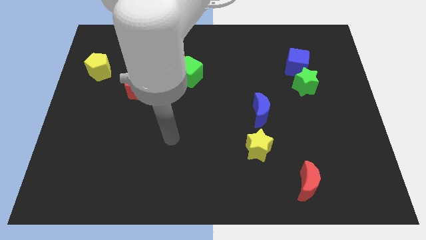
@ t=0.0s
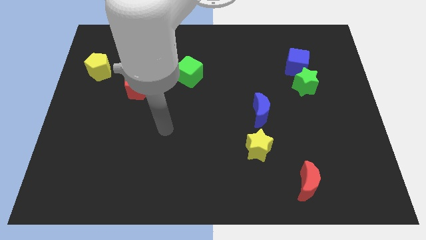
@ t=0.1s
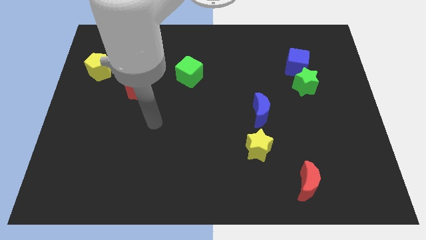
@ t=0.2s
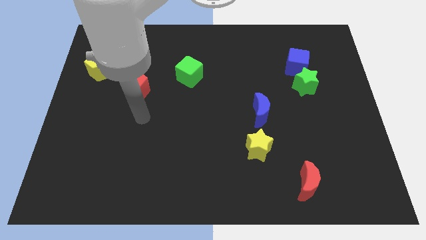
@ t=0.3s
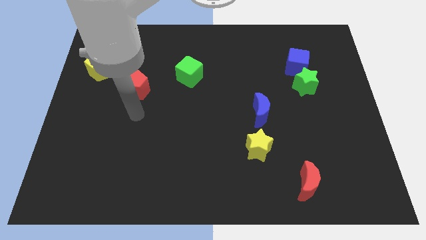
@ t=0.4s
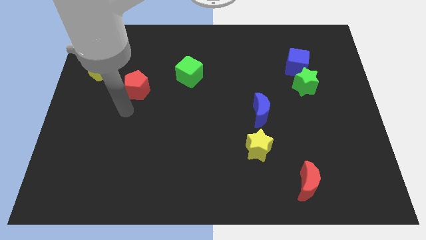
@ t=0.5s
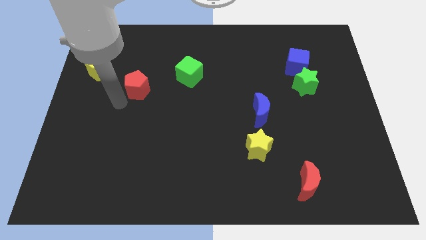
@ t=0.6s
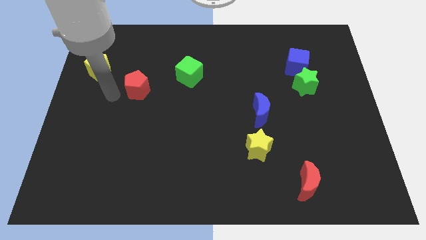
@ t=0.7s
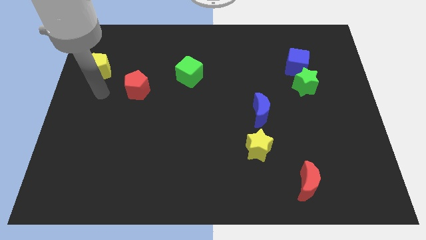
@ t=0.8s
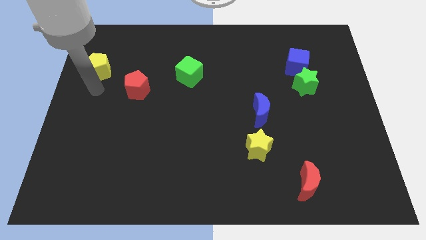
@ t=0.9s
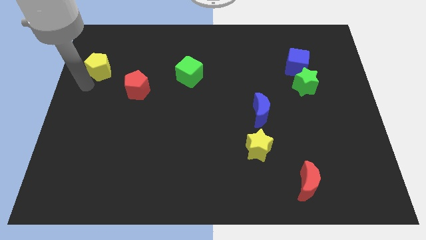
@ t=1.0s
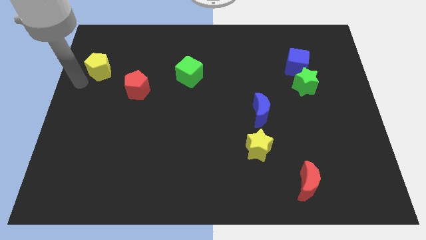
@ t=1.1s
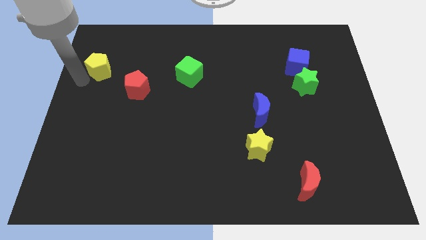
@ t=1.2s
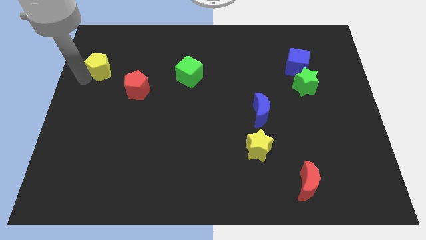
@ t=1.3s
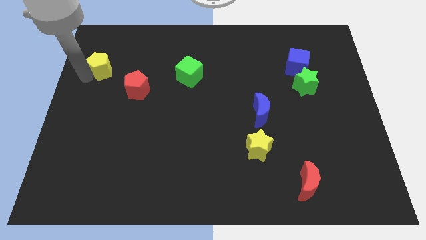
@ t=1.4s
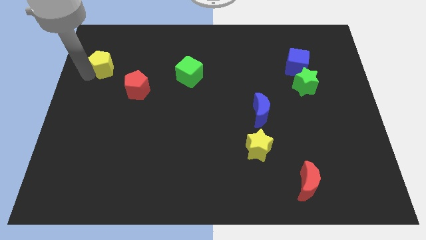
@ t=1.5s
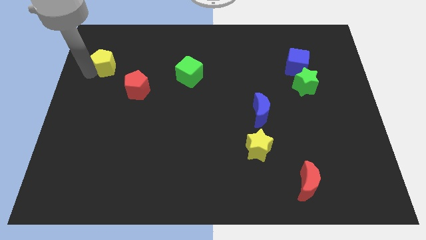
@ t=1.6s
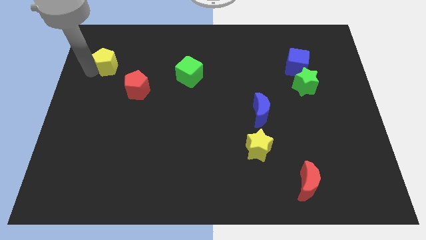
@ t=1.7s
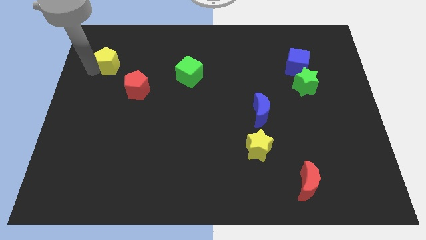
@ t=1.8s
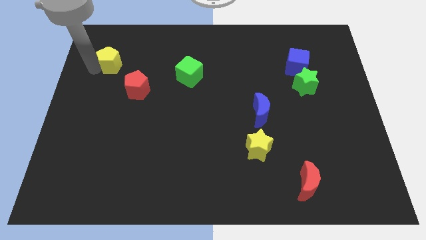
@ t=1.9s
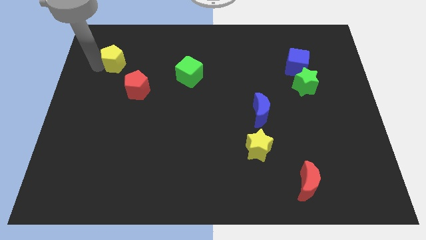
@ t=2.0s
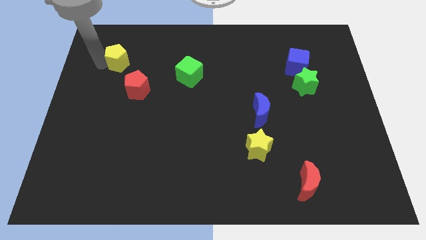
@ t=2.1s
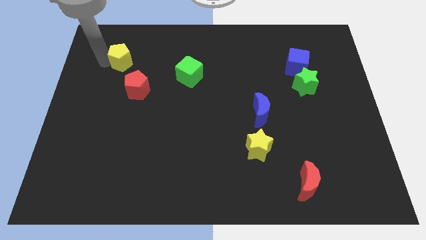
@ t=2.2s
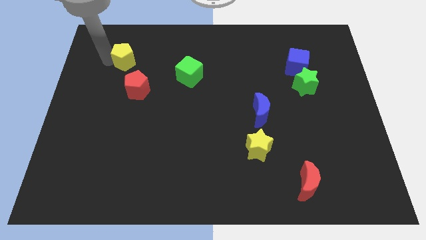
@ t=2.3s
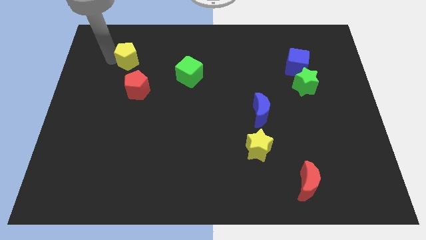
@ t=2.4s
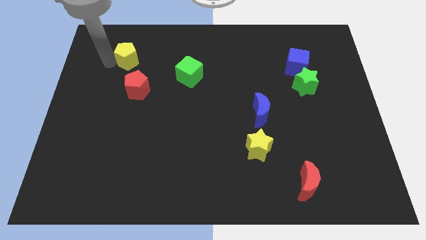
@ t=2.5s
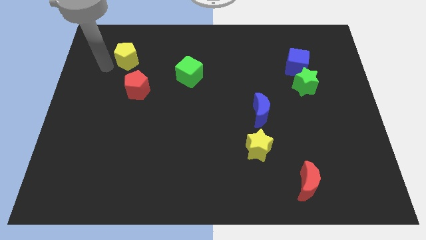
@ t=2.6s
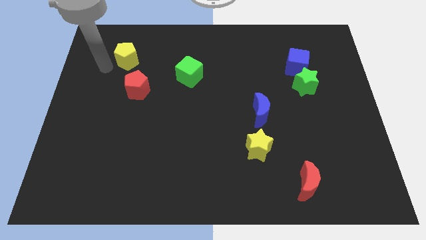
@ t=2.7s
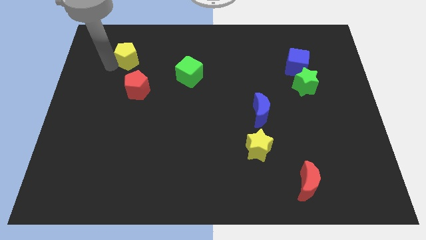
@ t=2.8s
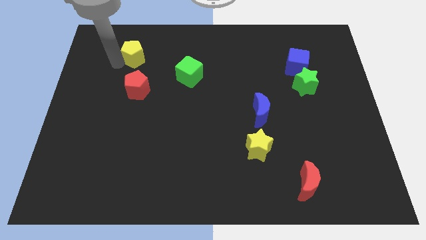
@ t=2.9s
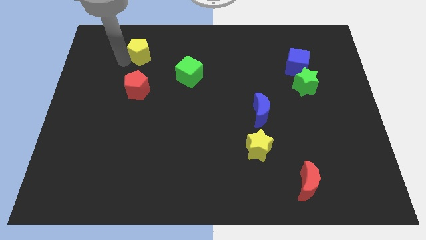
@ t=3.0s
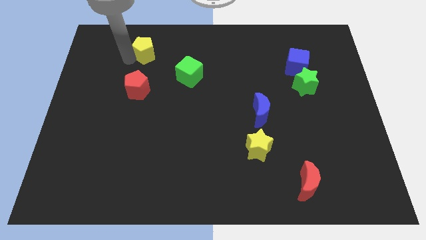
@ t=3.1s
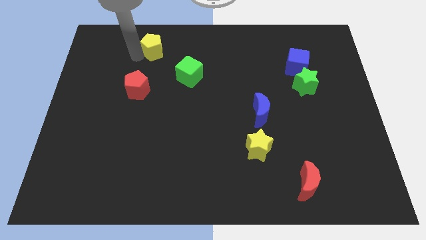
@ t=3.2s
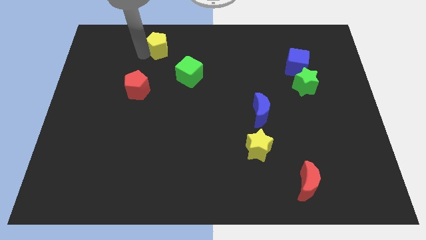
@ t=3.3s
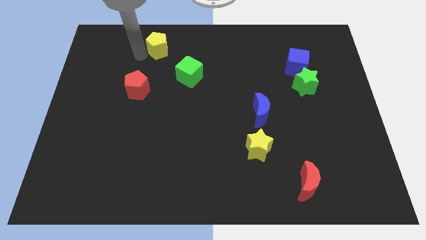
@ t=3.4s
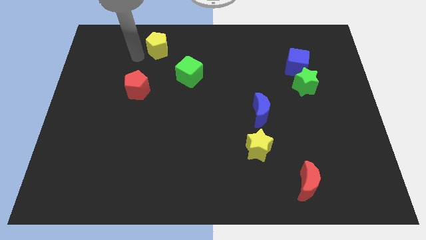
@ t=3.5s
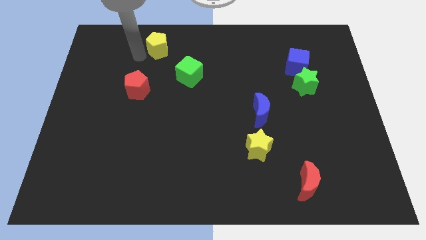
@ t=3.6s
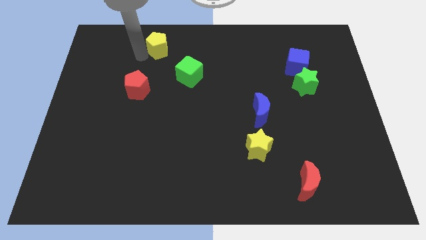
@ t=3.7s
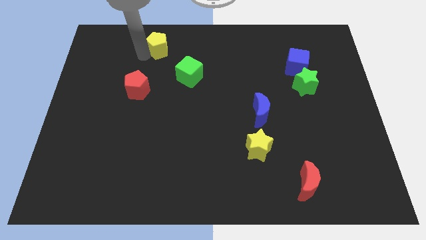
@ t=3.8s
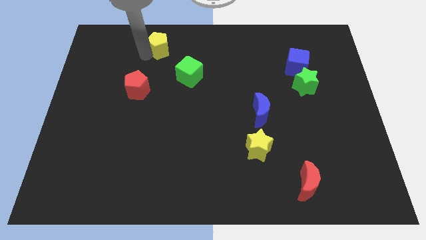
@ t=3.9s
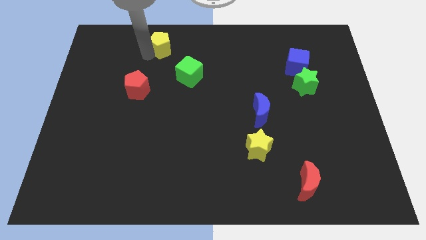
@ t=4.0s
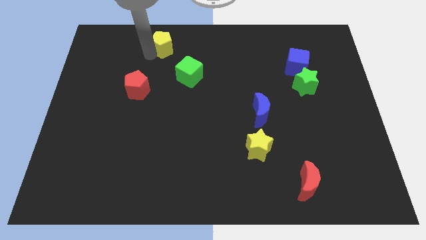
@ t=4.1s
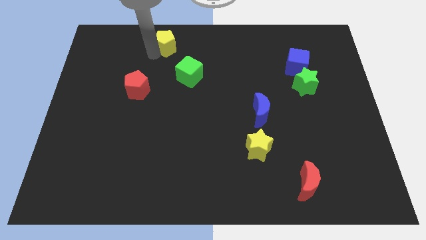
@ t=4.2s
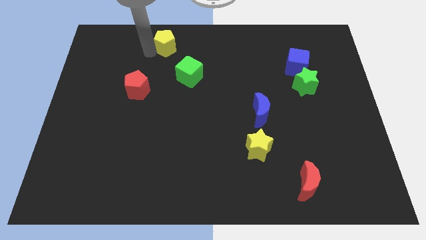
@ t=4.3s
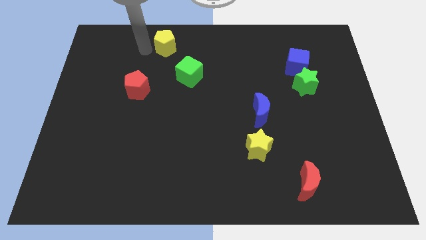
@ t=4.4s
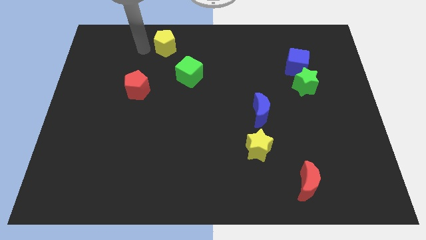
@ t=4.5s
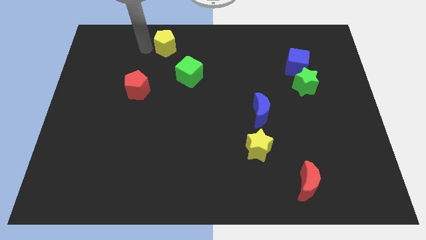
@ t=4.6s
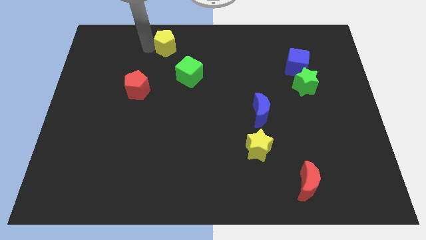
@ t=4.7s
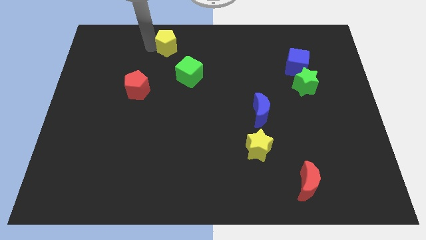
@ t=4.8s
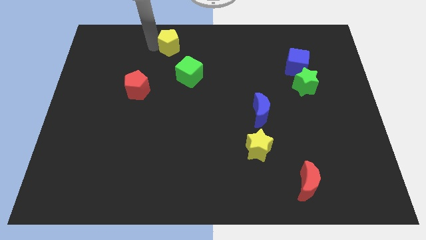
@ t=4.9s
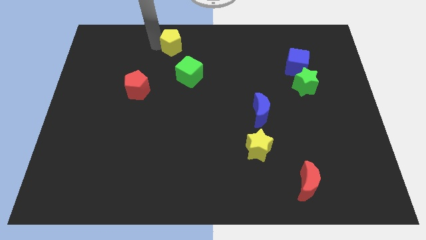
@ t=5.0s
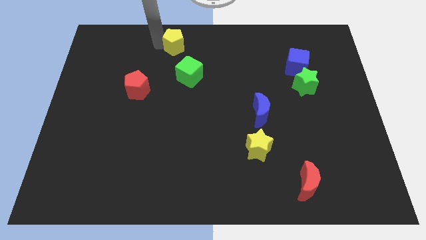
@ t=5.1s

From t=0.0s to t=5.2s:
move the yellow pentagon to the top side

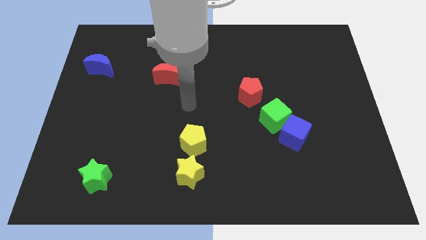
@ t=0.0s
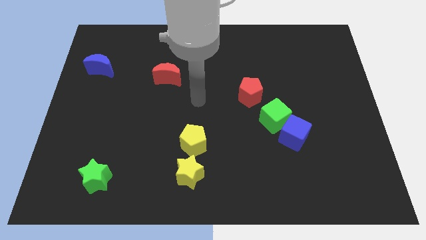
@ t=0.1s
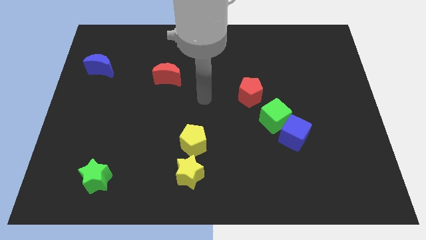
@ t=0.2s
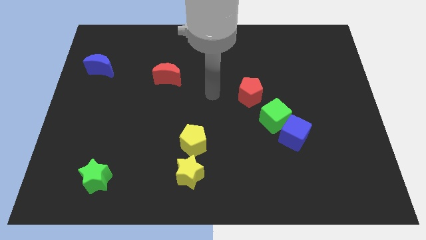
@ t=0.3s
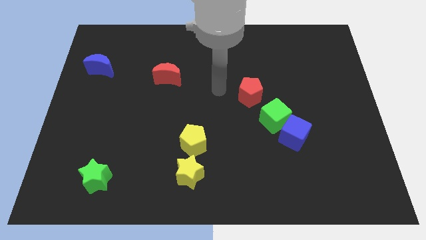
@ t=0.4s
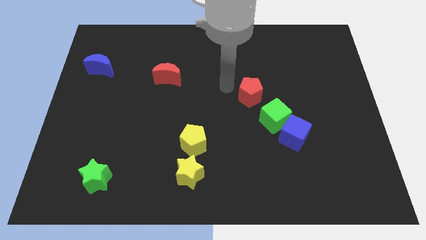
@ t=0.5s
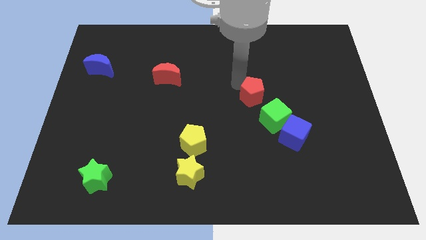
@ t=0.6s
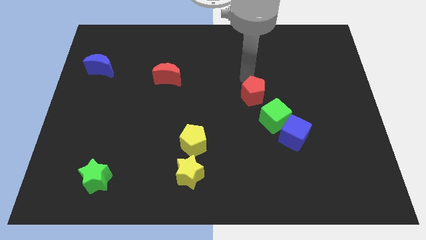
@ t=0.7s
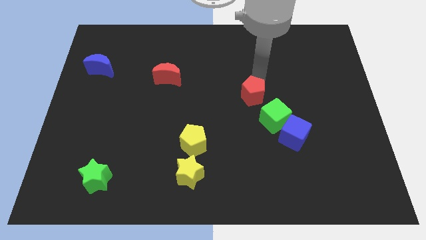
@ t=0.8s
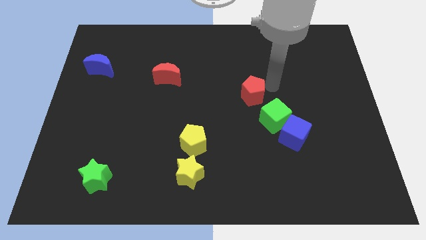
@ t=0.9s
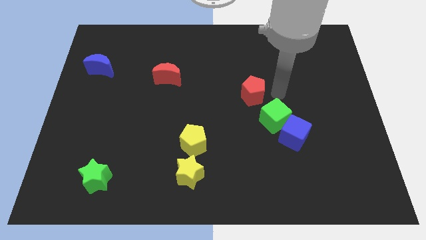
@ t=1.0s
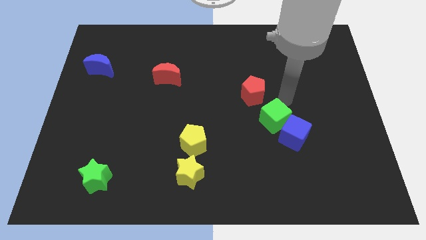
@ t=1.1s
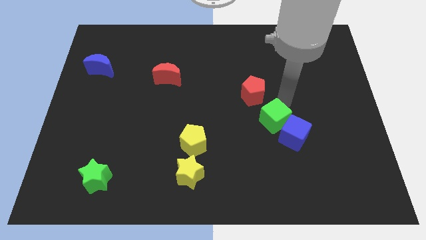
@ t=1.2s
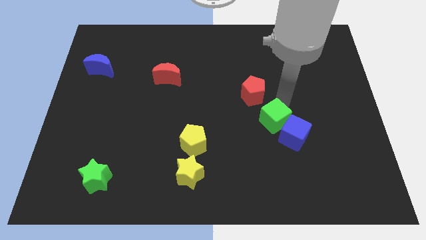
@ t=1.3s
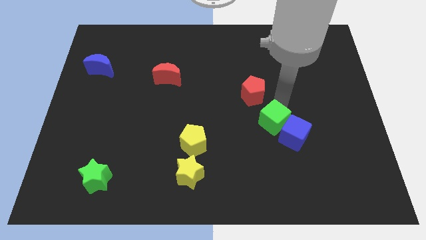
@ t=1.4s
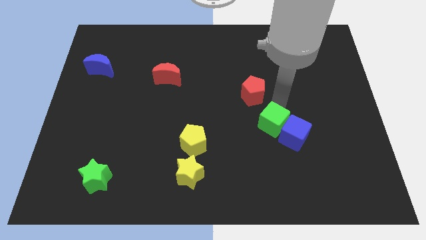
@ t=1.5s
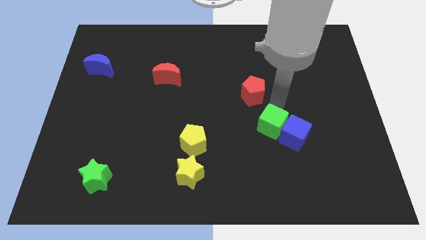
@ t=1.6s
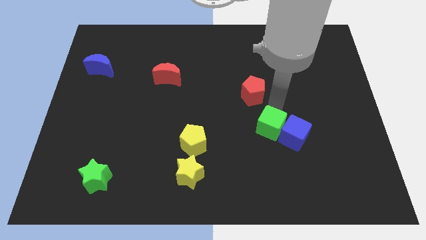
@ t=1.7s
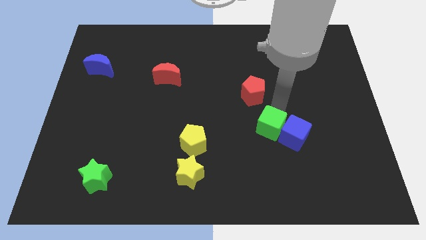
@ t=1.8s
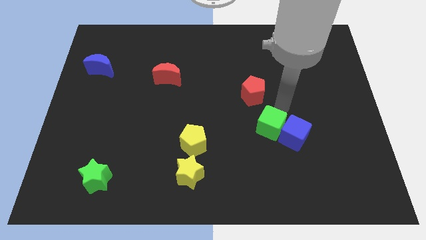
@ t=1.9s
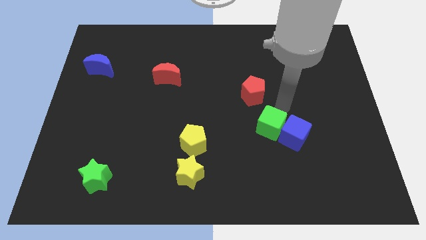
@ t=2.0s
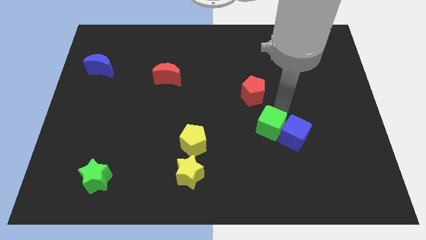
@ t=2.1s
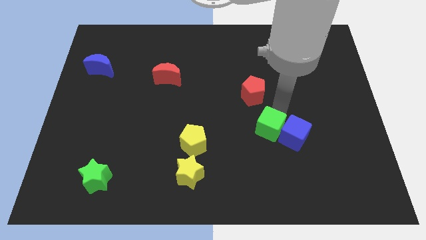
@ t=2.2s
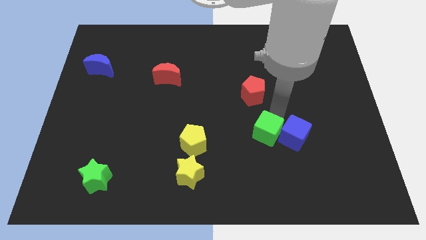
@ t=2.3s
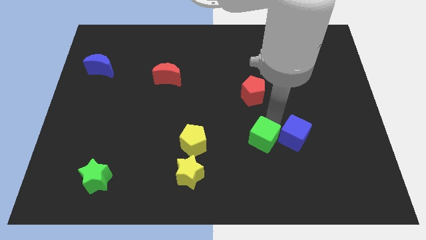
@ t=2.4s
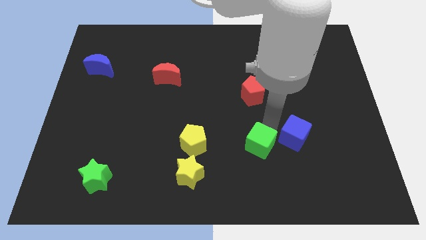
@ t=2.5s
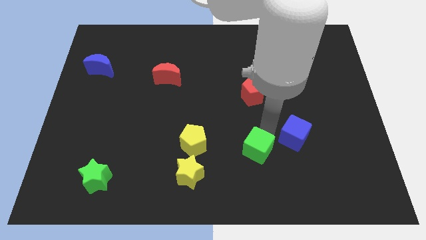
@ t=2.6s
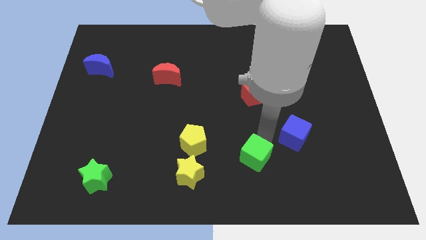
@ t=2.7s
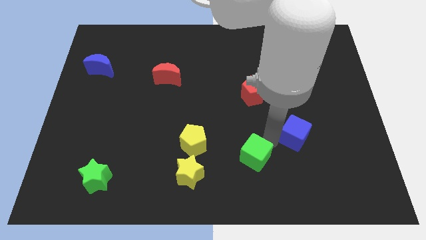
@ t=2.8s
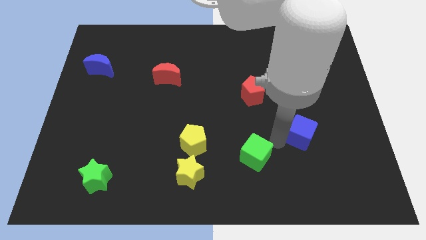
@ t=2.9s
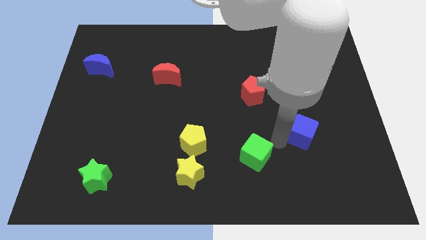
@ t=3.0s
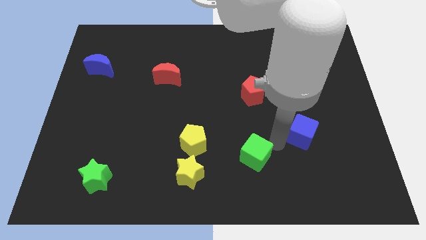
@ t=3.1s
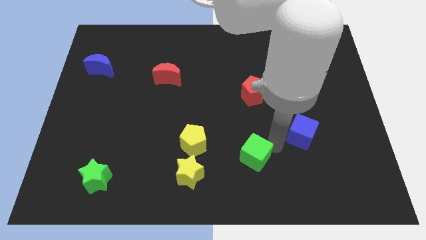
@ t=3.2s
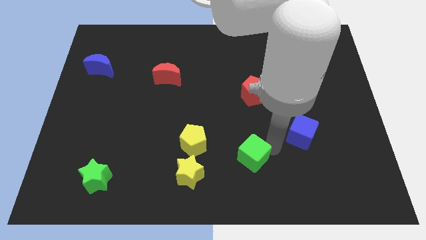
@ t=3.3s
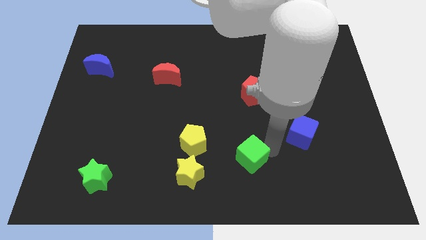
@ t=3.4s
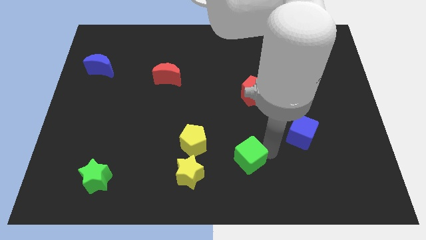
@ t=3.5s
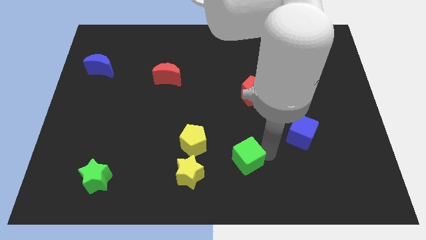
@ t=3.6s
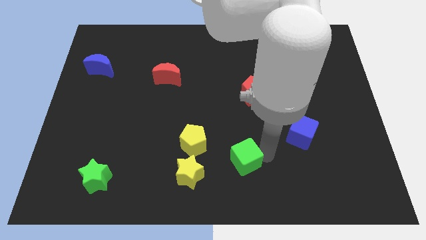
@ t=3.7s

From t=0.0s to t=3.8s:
slide the green cube to the bottom side
